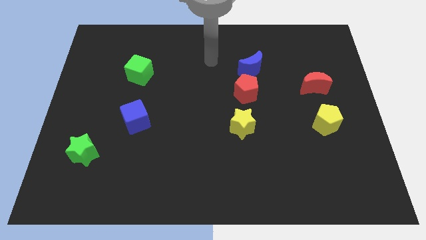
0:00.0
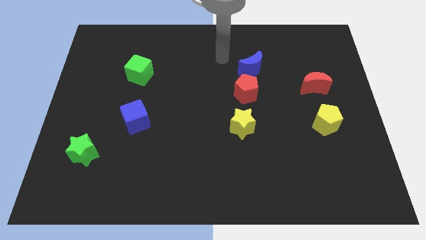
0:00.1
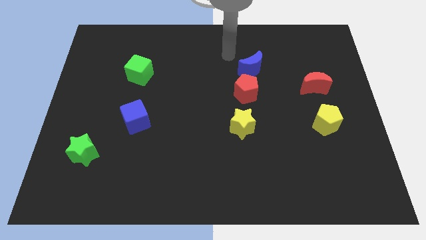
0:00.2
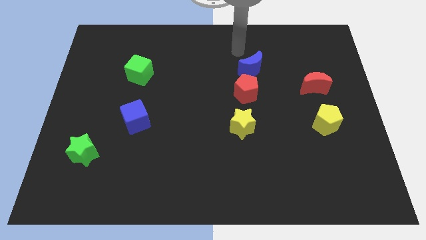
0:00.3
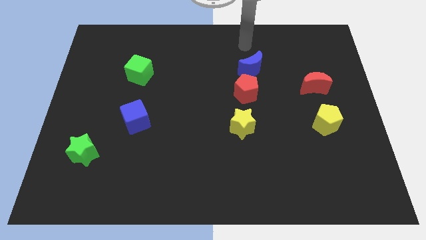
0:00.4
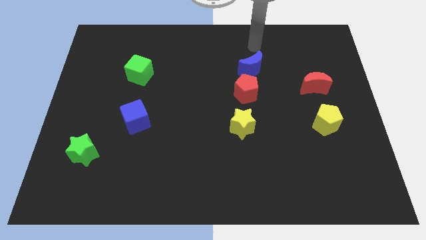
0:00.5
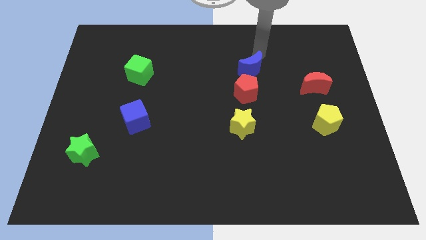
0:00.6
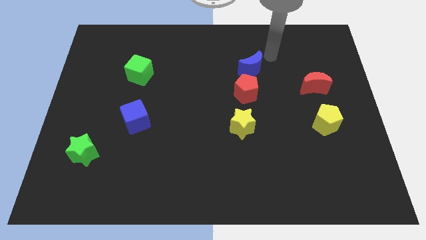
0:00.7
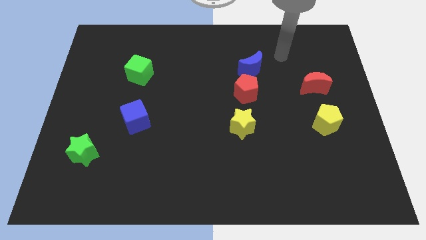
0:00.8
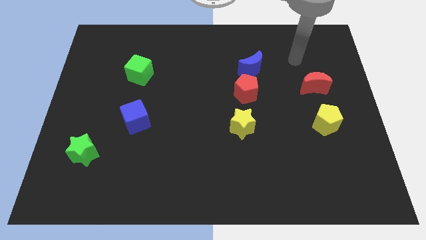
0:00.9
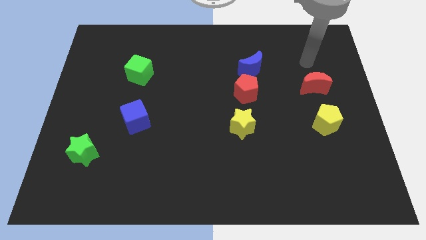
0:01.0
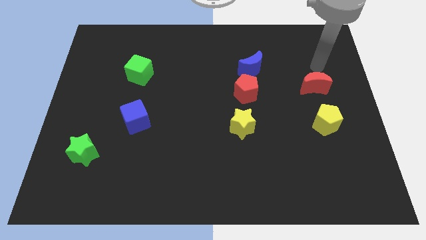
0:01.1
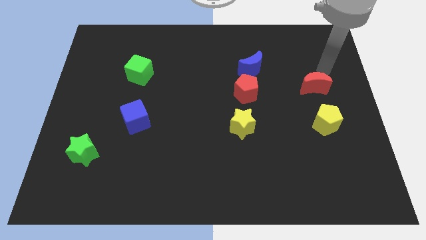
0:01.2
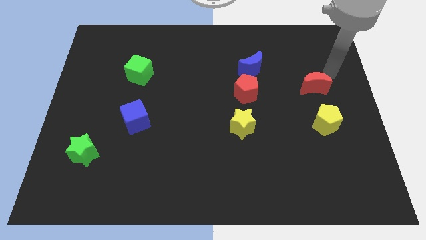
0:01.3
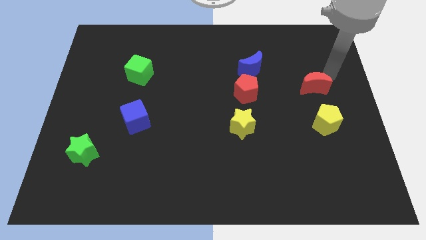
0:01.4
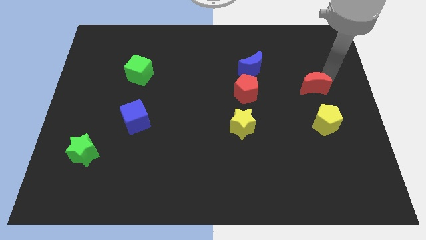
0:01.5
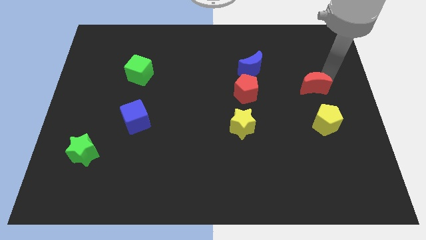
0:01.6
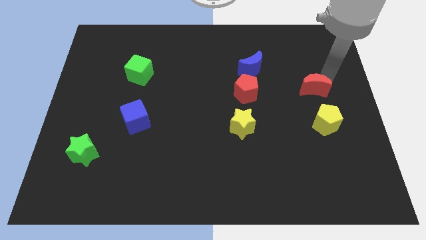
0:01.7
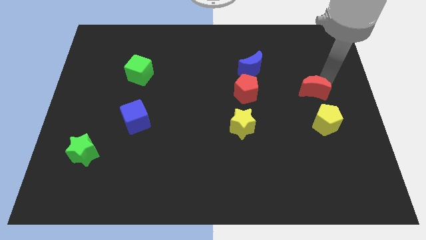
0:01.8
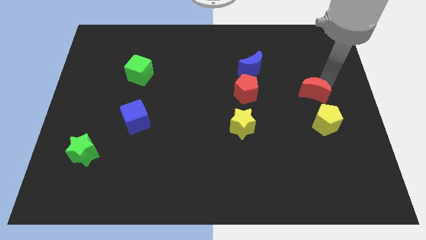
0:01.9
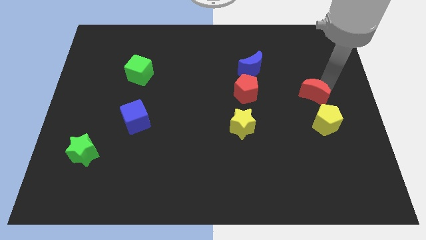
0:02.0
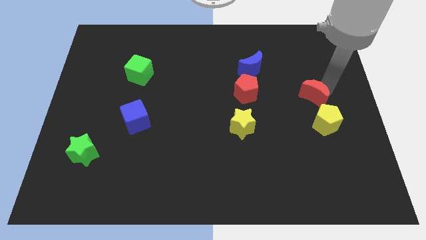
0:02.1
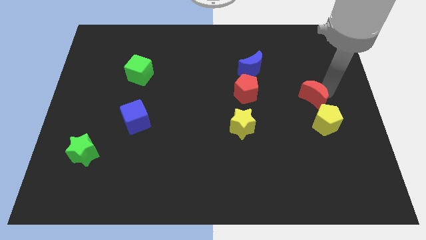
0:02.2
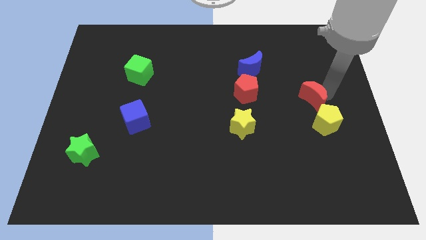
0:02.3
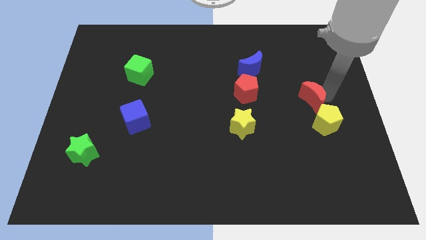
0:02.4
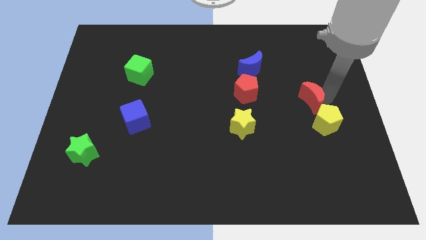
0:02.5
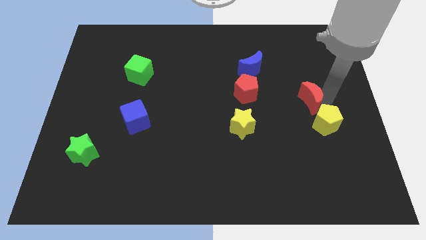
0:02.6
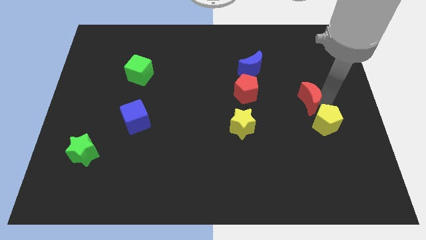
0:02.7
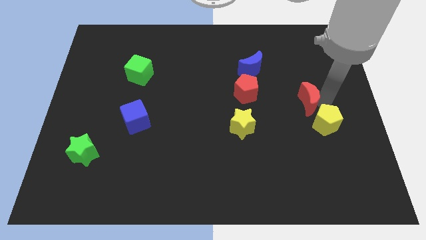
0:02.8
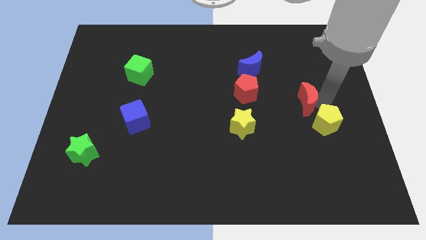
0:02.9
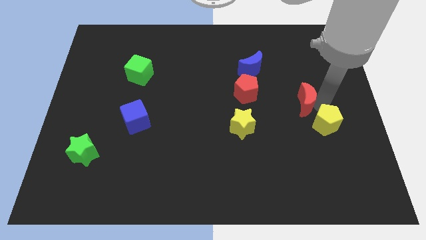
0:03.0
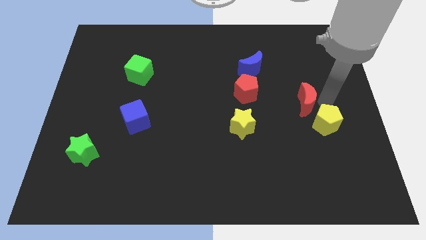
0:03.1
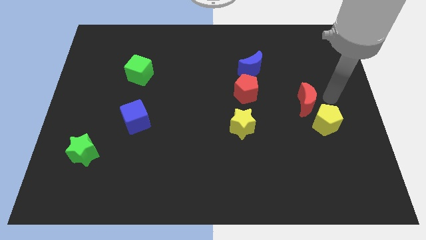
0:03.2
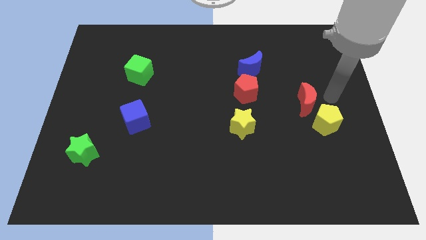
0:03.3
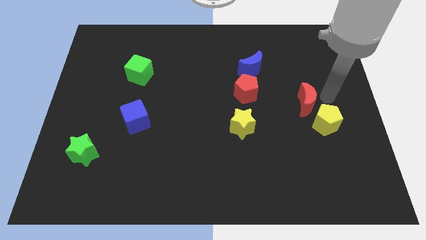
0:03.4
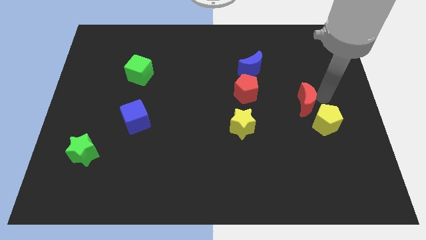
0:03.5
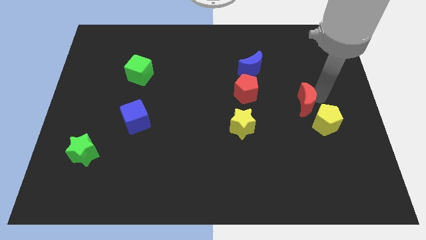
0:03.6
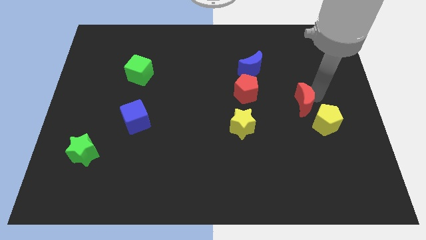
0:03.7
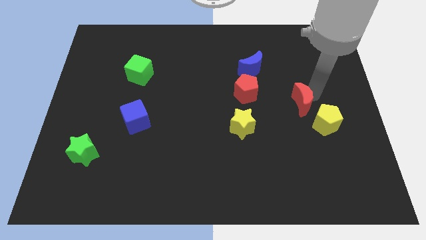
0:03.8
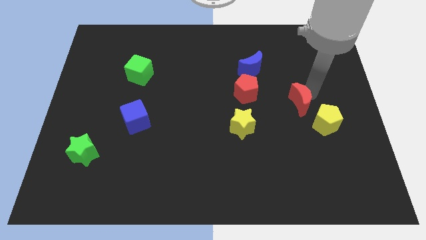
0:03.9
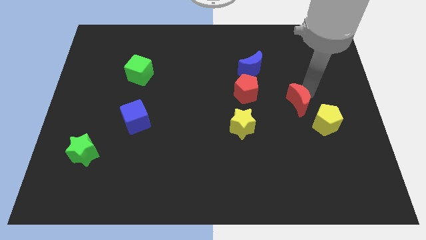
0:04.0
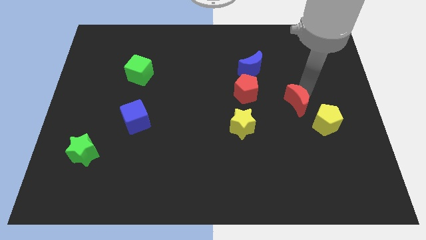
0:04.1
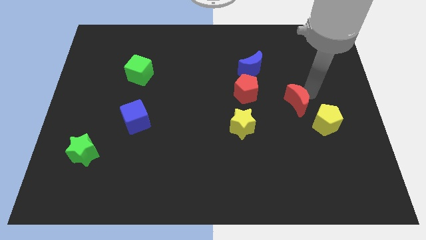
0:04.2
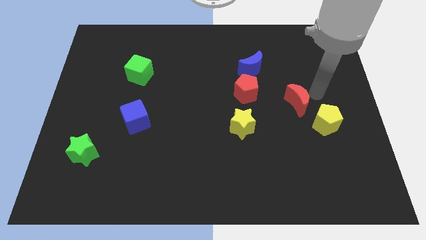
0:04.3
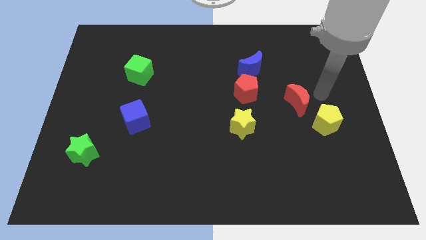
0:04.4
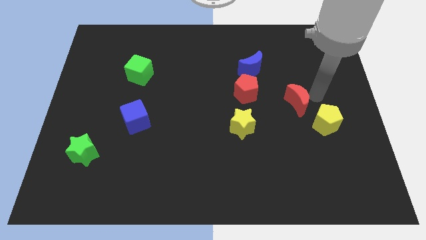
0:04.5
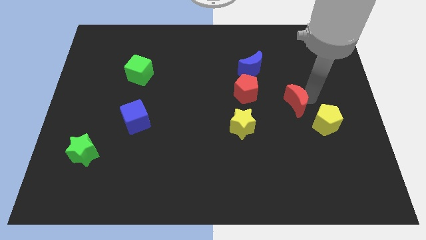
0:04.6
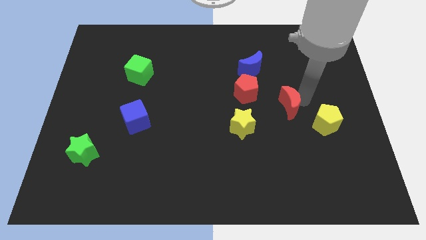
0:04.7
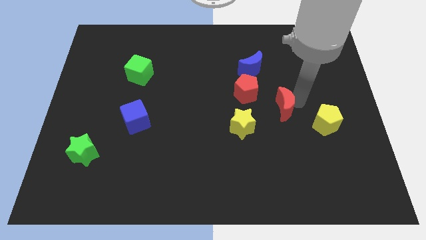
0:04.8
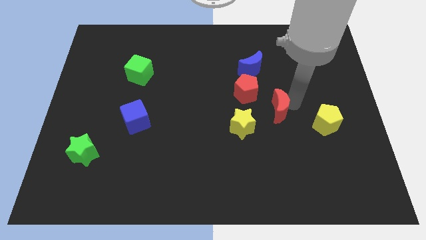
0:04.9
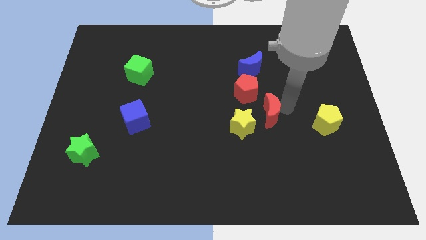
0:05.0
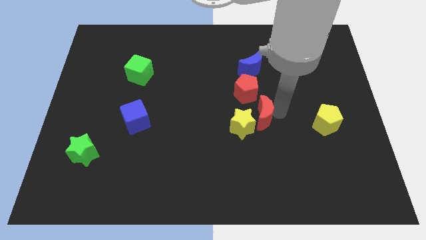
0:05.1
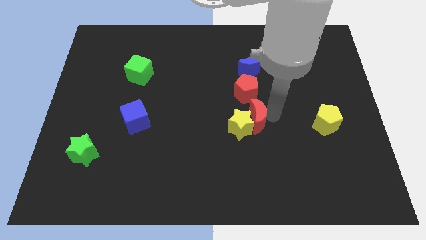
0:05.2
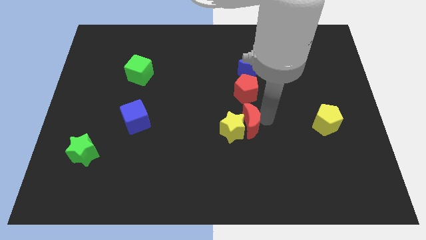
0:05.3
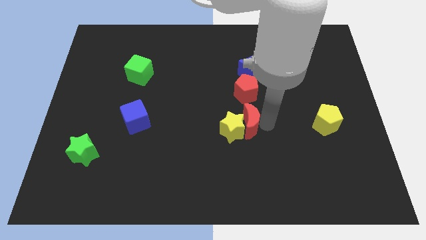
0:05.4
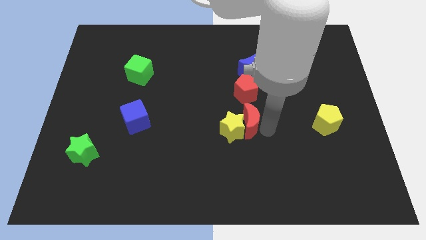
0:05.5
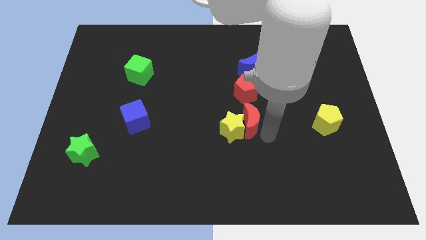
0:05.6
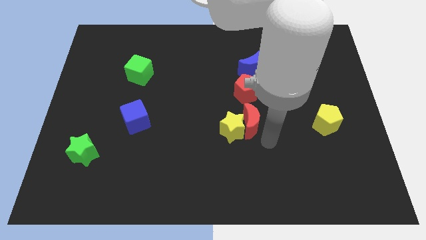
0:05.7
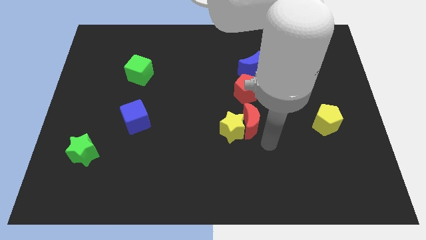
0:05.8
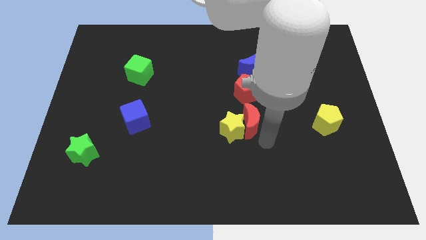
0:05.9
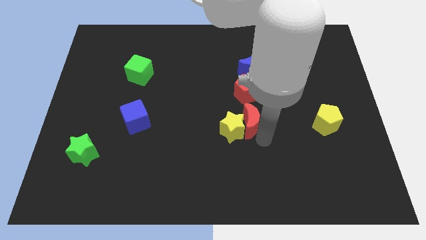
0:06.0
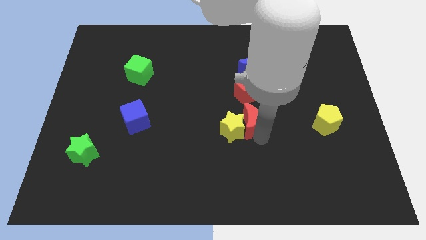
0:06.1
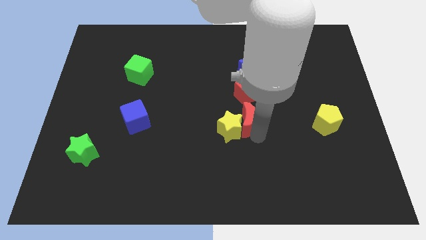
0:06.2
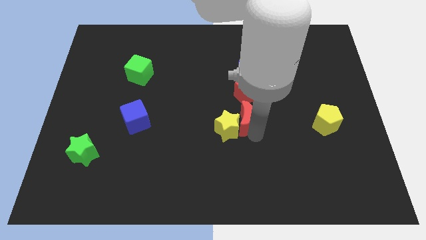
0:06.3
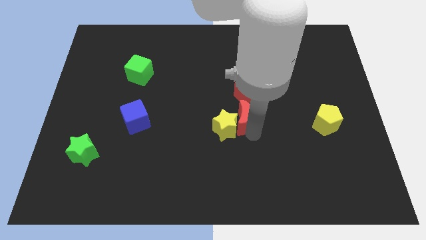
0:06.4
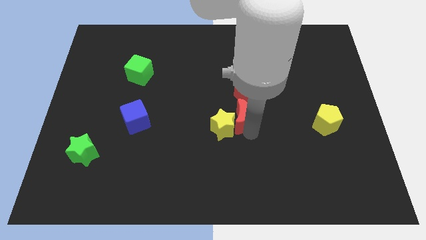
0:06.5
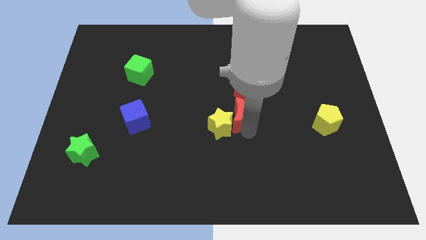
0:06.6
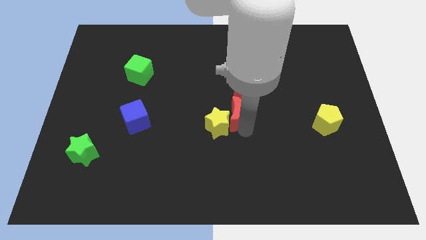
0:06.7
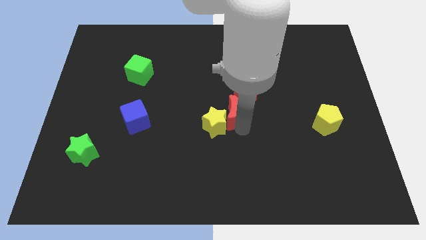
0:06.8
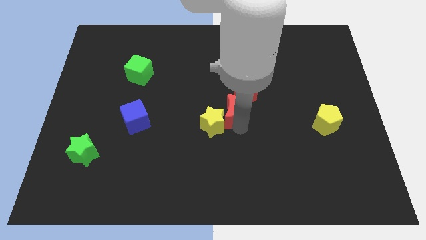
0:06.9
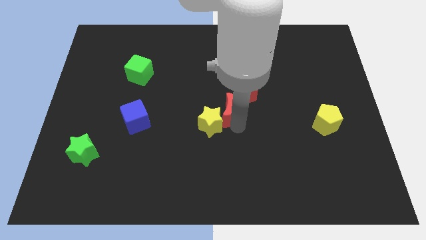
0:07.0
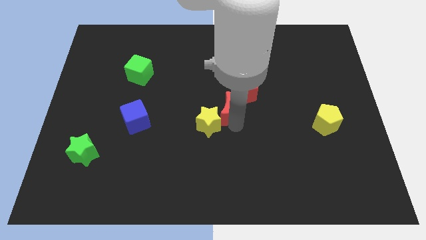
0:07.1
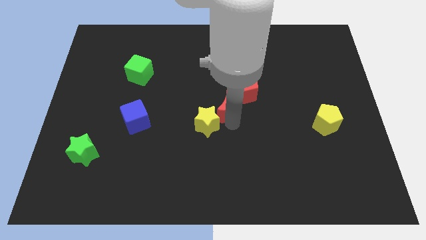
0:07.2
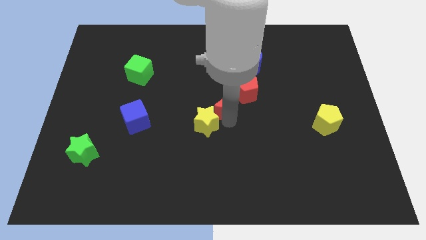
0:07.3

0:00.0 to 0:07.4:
push the red moon just left of the red pentagon
